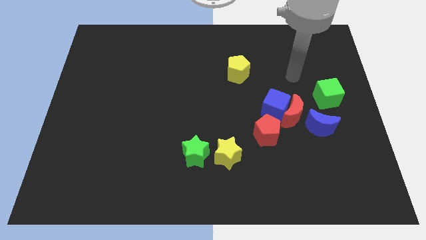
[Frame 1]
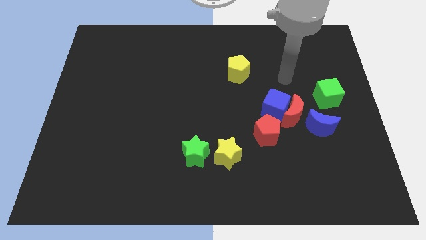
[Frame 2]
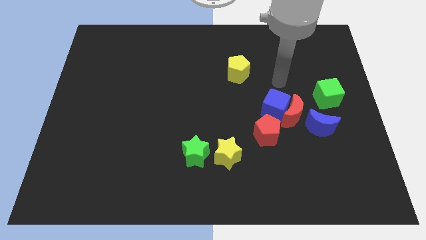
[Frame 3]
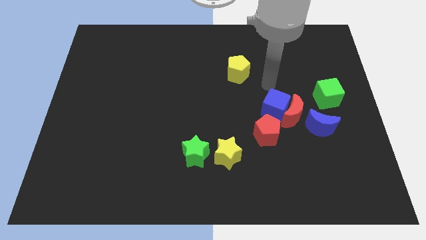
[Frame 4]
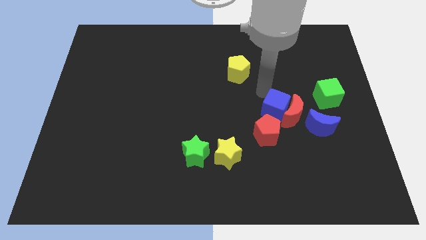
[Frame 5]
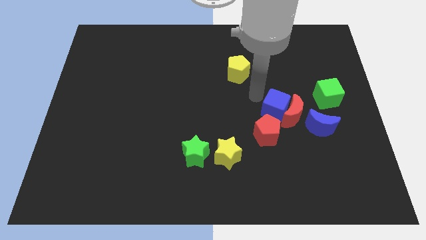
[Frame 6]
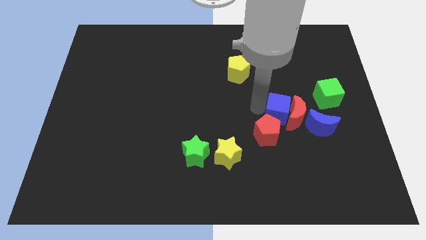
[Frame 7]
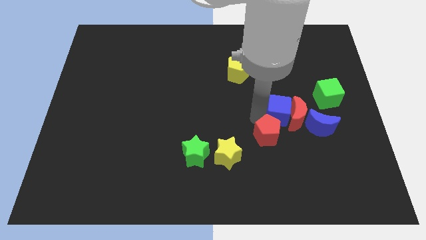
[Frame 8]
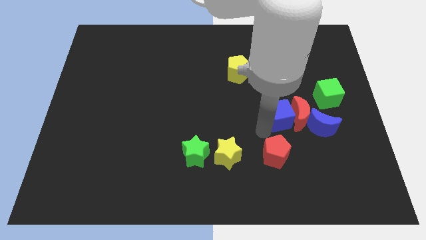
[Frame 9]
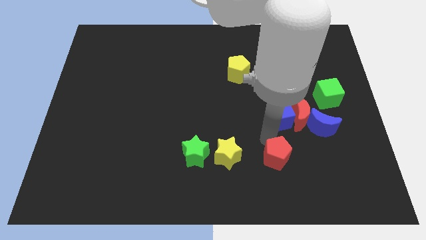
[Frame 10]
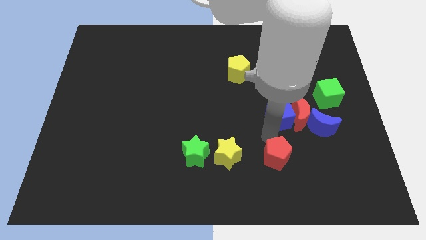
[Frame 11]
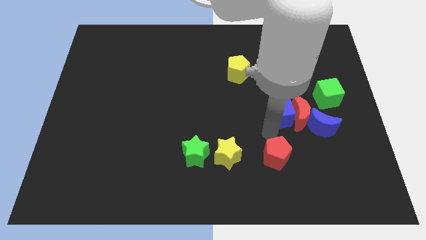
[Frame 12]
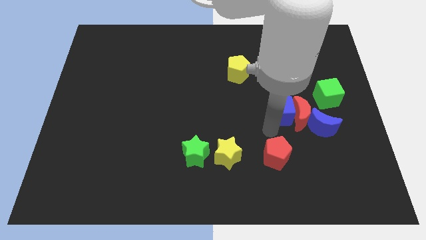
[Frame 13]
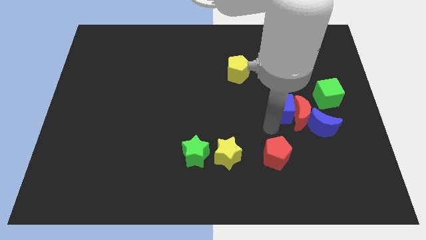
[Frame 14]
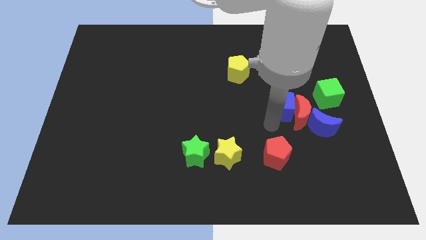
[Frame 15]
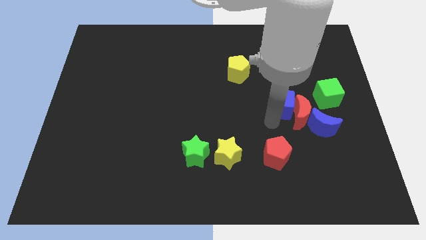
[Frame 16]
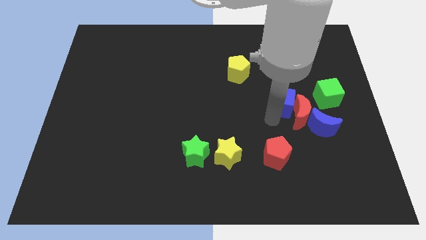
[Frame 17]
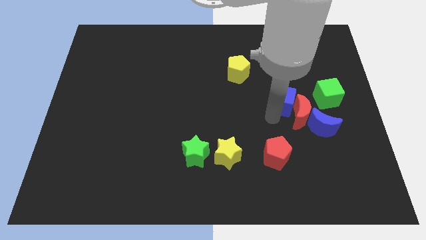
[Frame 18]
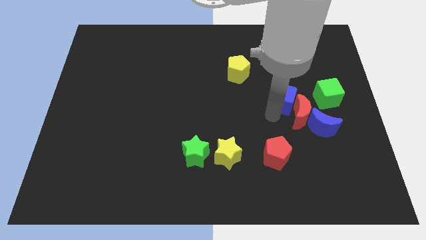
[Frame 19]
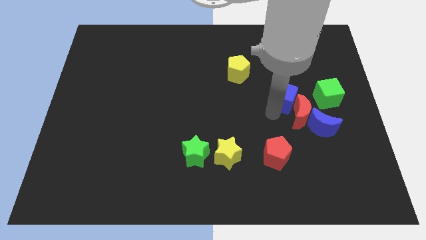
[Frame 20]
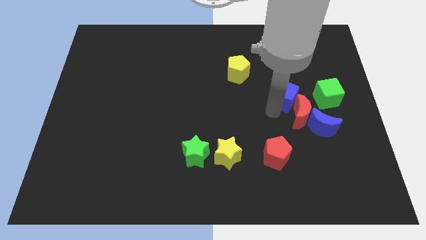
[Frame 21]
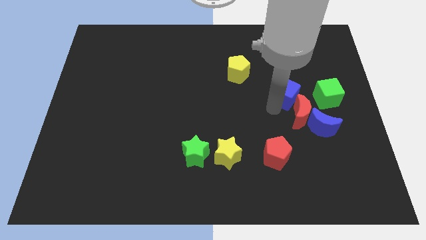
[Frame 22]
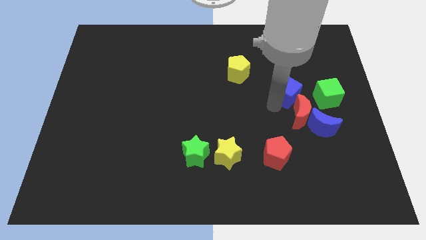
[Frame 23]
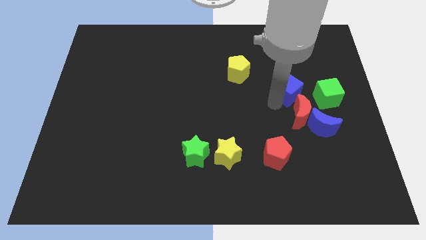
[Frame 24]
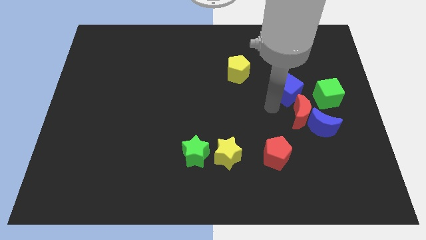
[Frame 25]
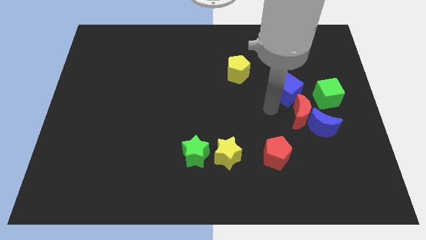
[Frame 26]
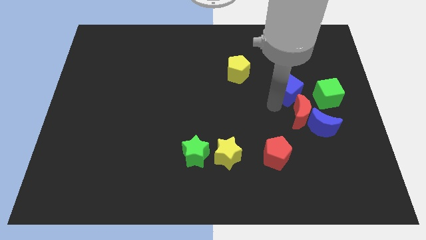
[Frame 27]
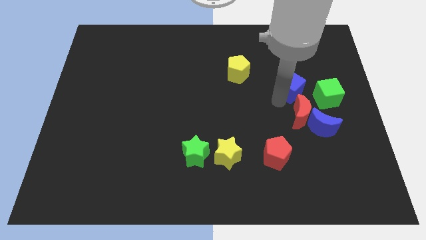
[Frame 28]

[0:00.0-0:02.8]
slightly push the blue cube diagonally up and right

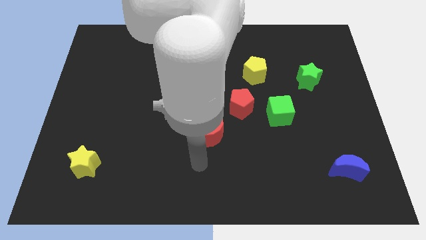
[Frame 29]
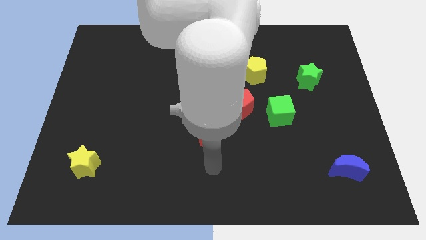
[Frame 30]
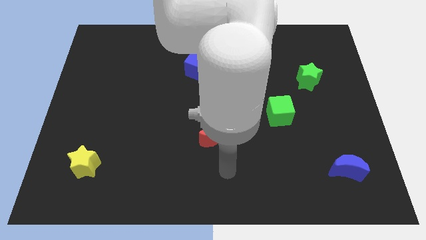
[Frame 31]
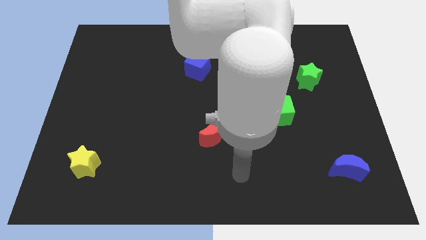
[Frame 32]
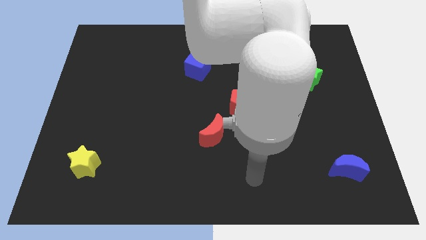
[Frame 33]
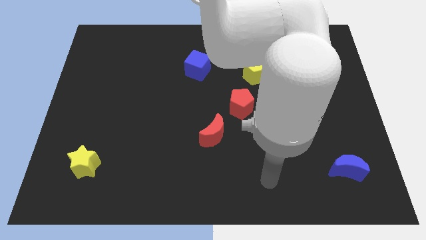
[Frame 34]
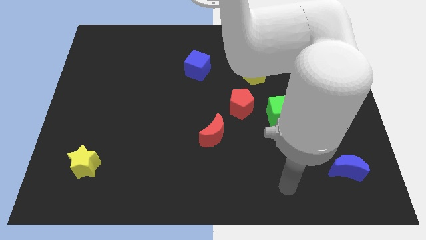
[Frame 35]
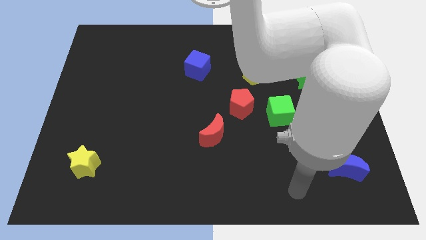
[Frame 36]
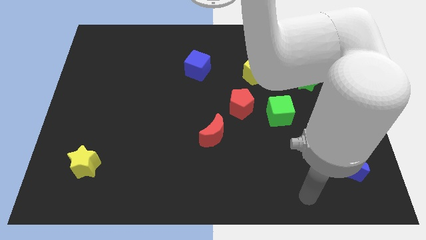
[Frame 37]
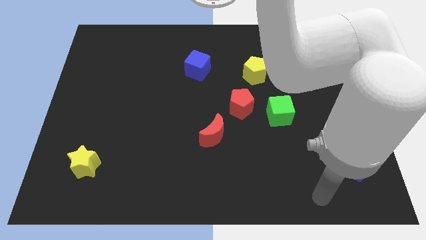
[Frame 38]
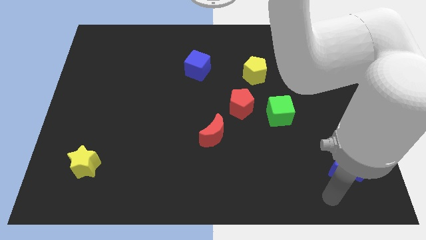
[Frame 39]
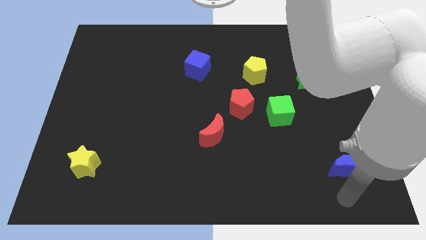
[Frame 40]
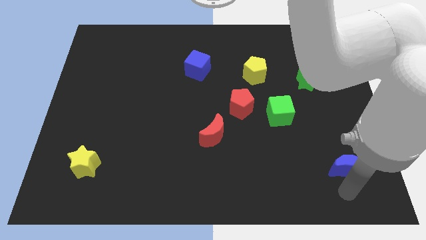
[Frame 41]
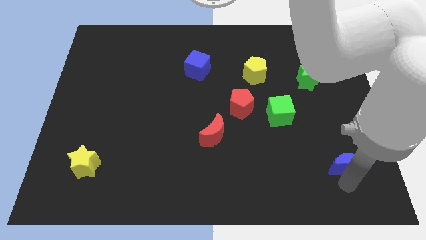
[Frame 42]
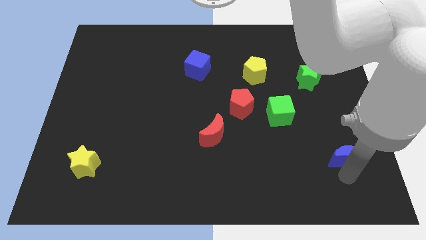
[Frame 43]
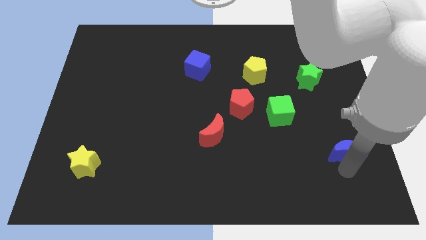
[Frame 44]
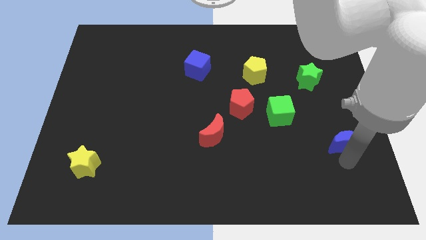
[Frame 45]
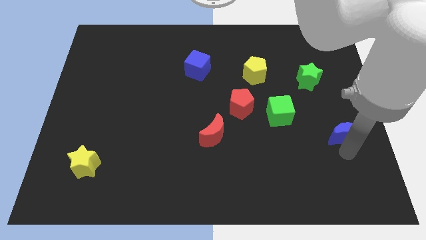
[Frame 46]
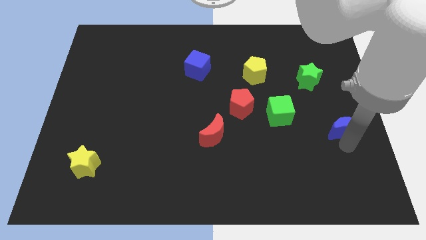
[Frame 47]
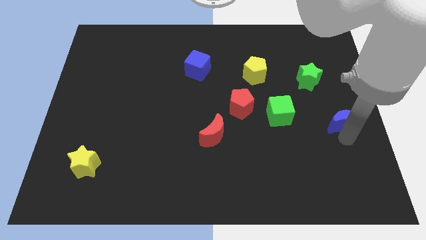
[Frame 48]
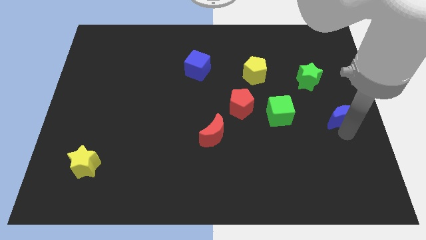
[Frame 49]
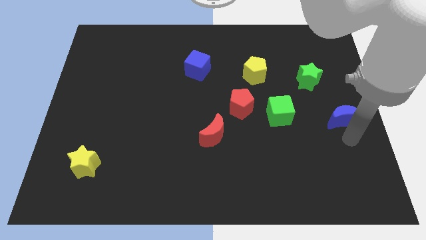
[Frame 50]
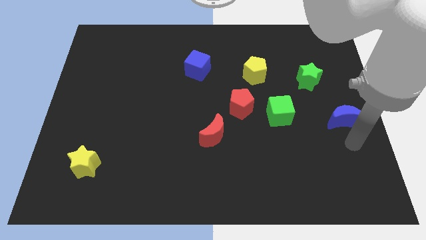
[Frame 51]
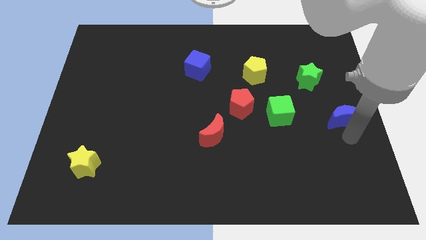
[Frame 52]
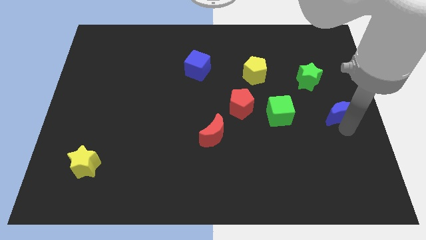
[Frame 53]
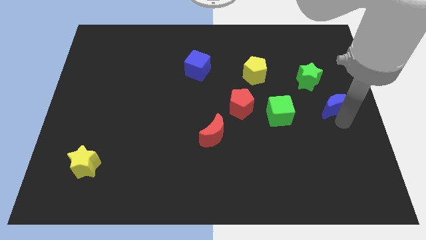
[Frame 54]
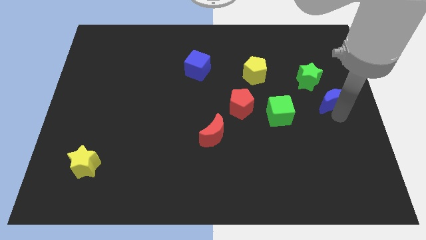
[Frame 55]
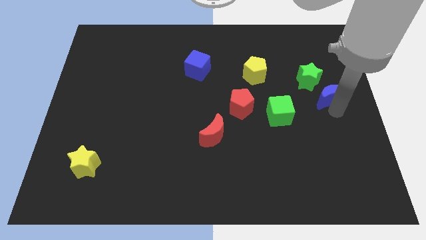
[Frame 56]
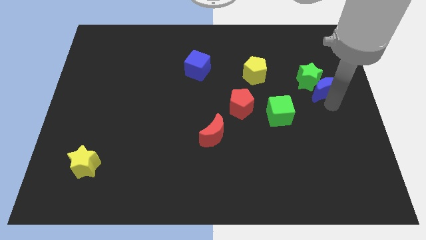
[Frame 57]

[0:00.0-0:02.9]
push the blue moon up

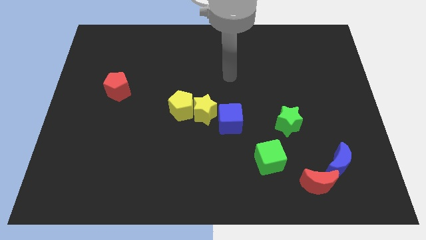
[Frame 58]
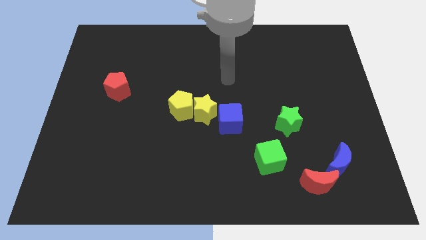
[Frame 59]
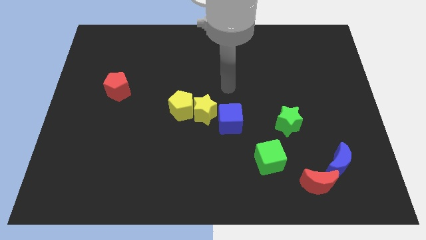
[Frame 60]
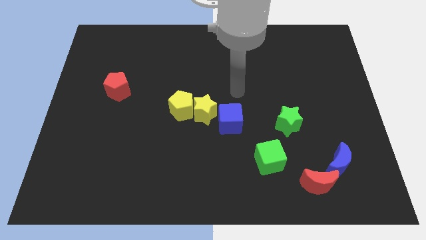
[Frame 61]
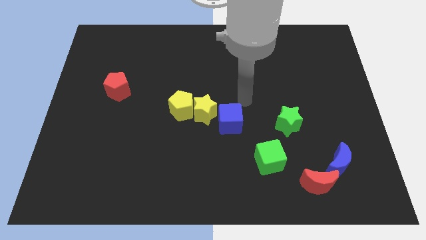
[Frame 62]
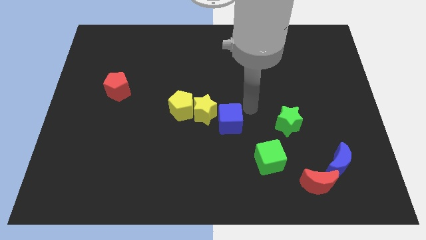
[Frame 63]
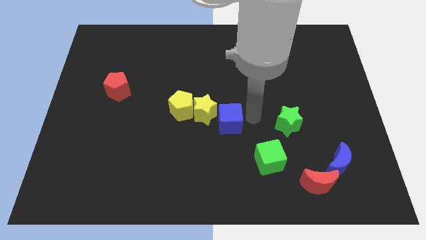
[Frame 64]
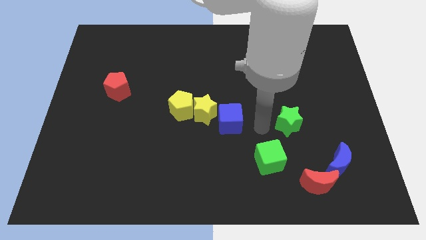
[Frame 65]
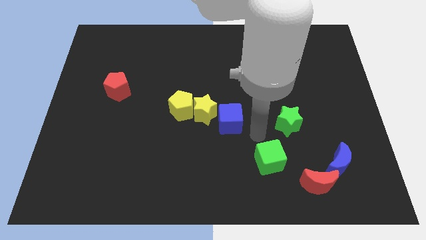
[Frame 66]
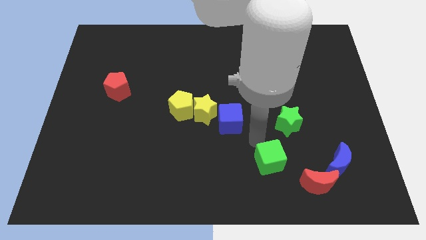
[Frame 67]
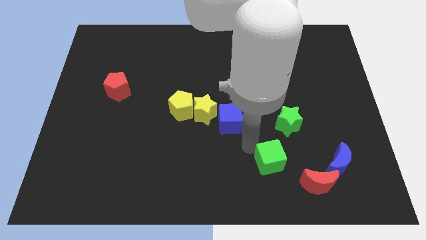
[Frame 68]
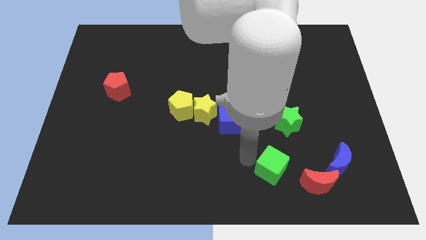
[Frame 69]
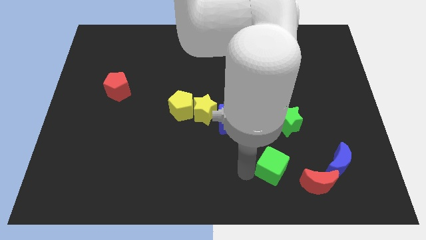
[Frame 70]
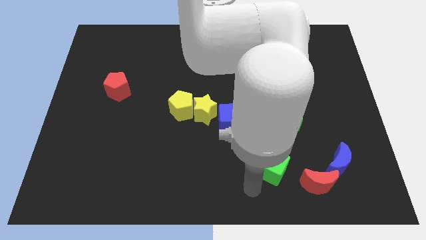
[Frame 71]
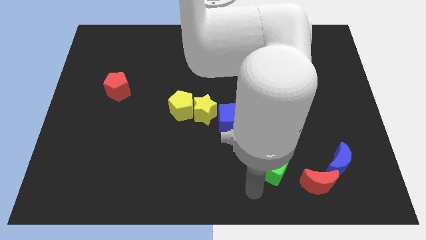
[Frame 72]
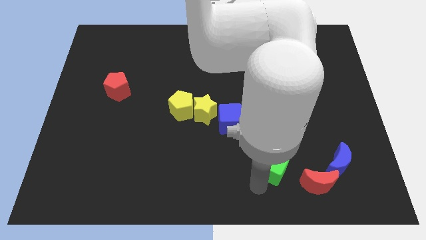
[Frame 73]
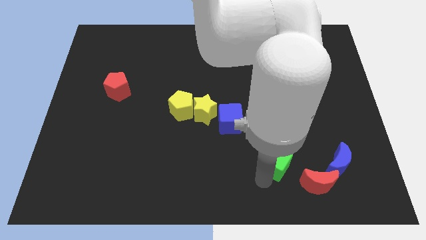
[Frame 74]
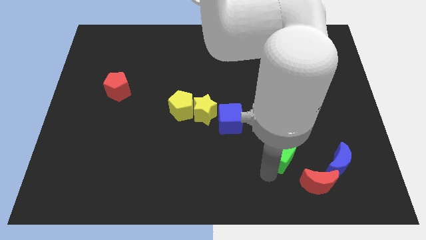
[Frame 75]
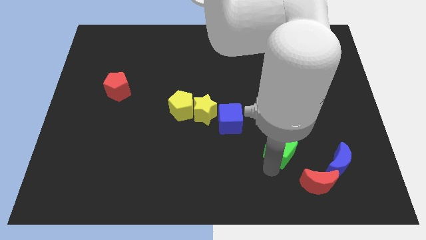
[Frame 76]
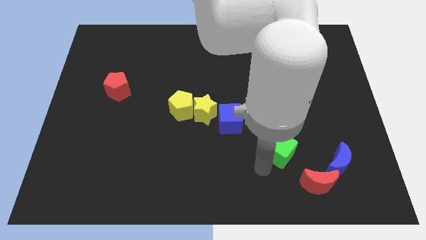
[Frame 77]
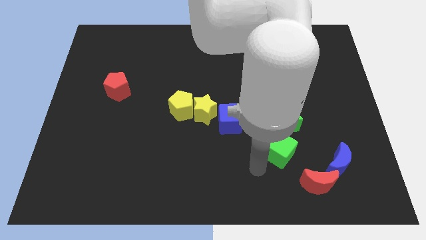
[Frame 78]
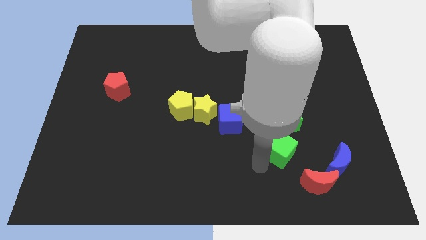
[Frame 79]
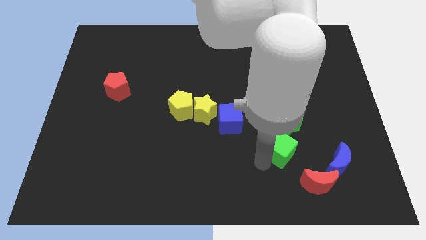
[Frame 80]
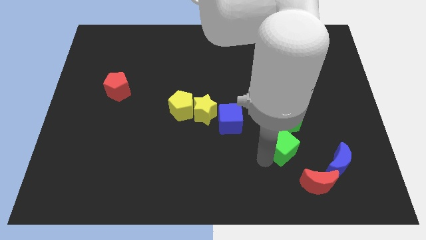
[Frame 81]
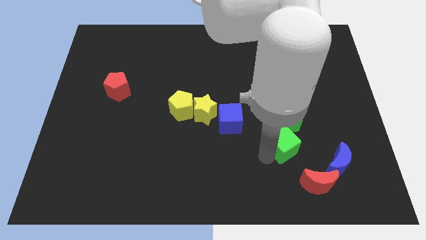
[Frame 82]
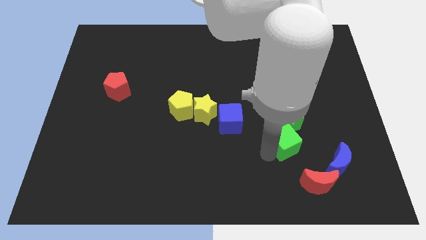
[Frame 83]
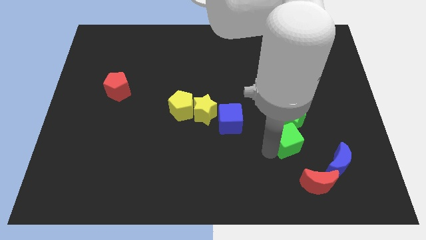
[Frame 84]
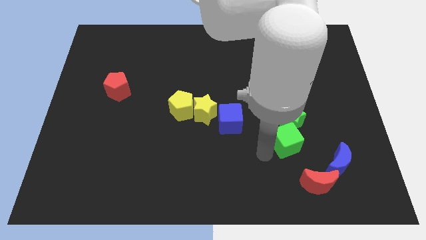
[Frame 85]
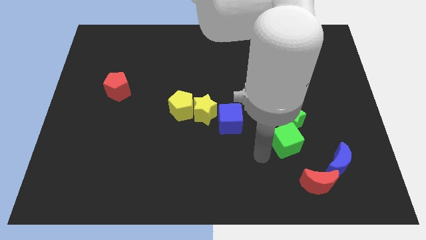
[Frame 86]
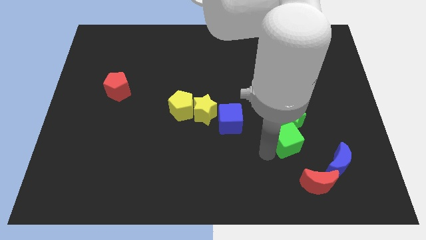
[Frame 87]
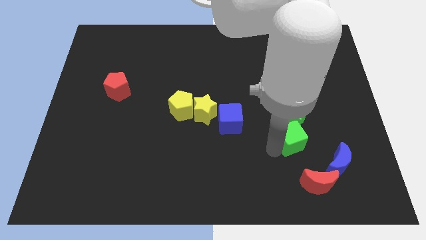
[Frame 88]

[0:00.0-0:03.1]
move the green cube upwards and then right a little bit
